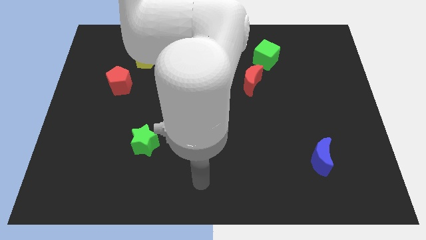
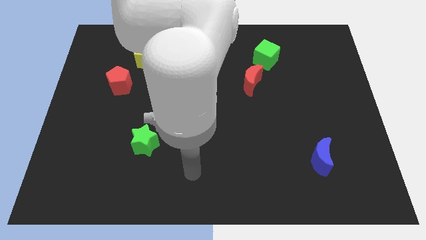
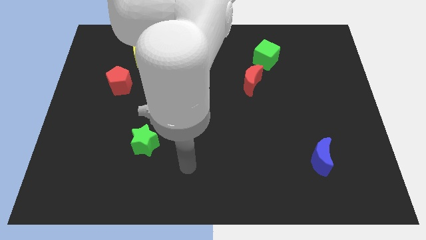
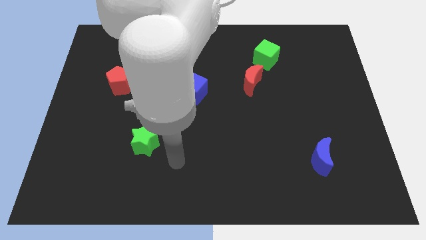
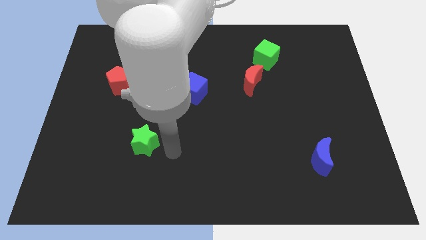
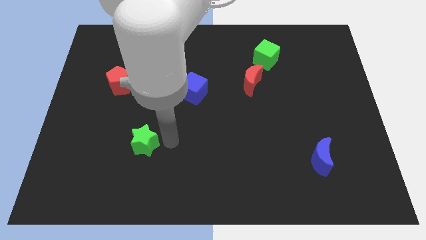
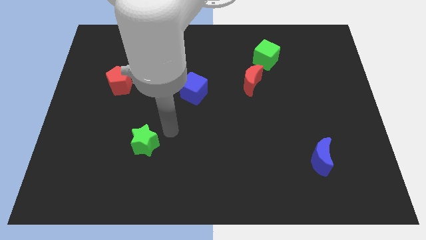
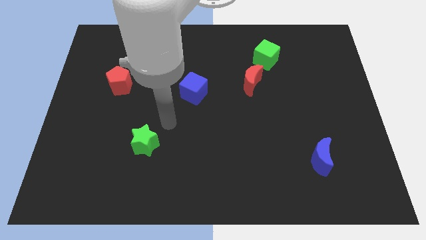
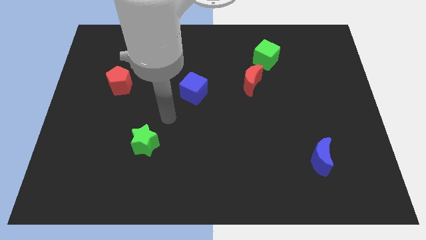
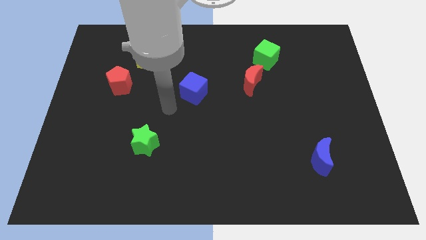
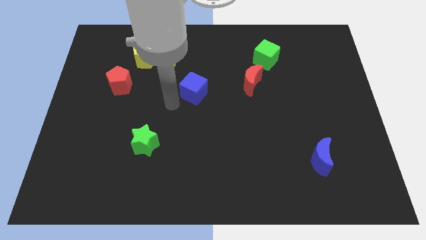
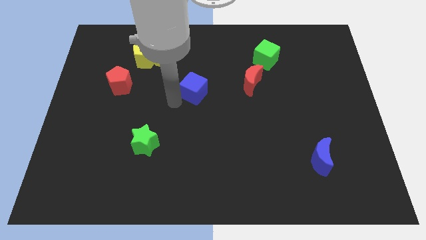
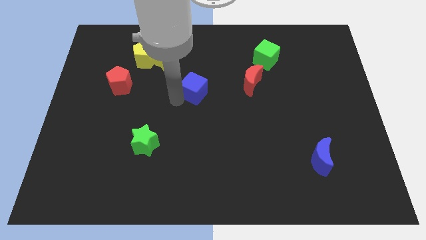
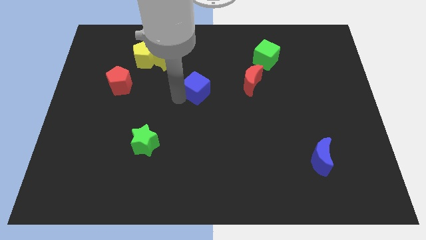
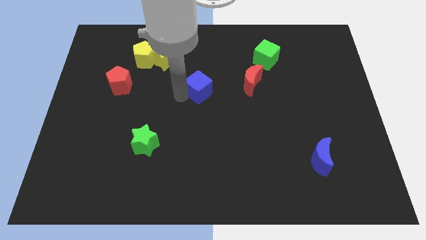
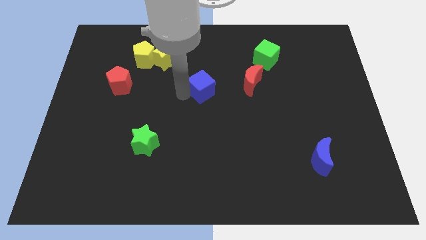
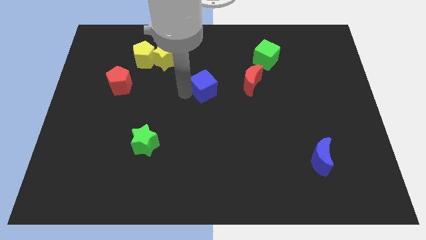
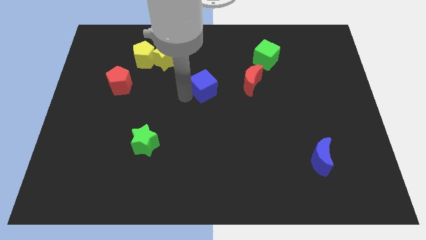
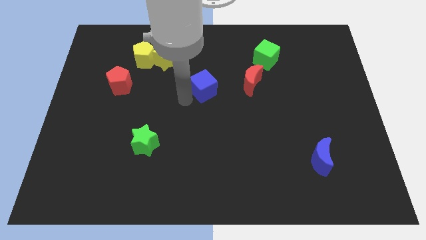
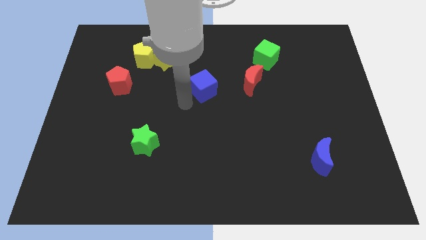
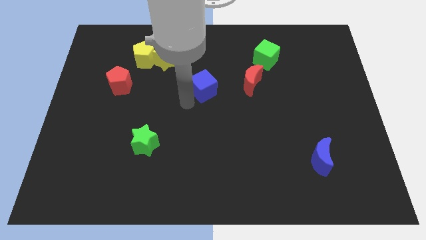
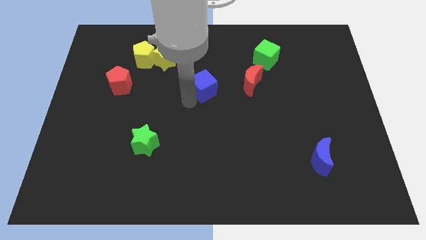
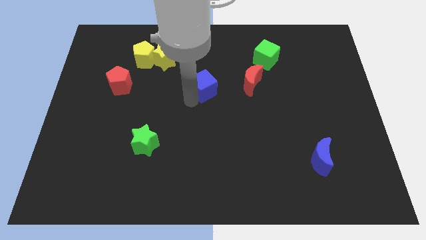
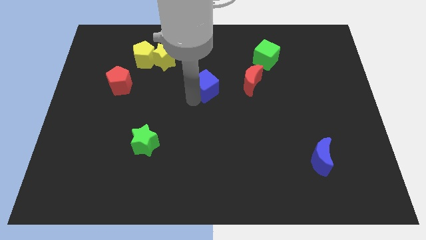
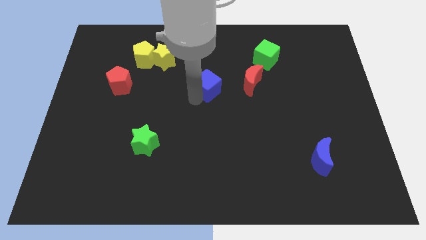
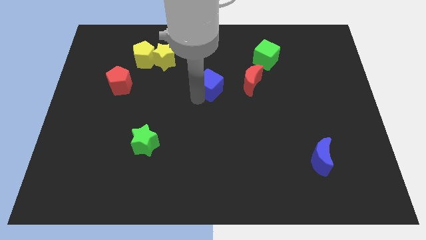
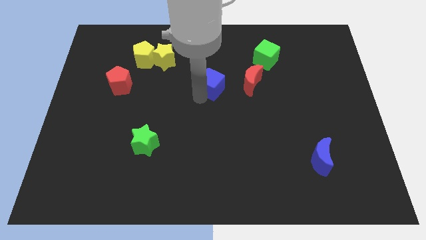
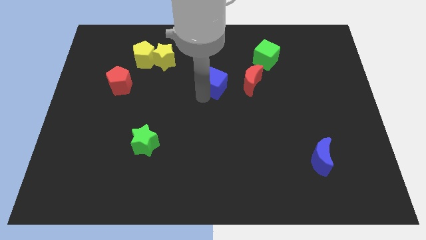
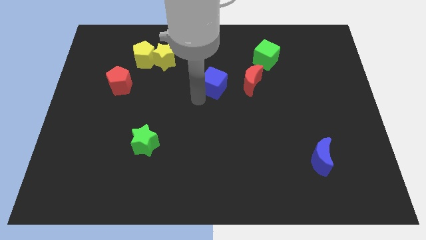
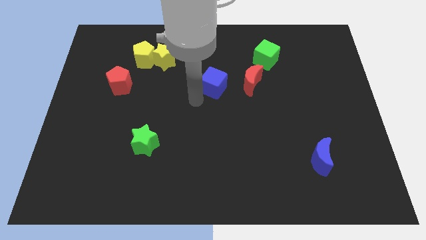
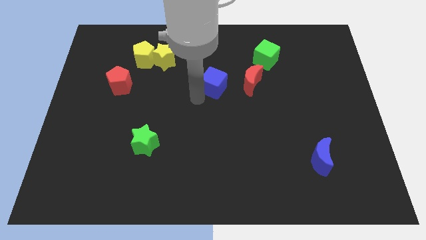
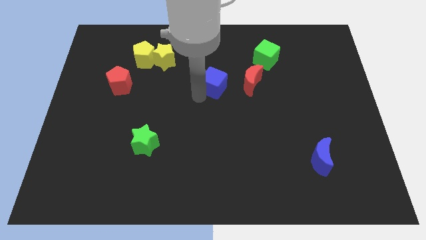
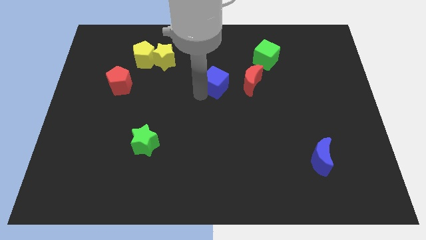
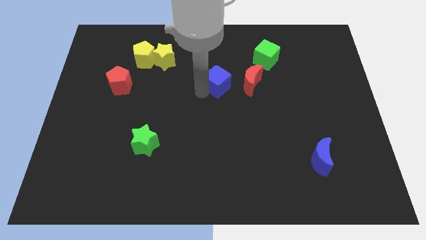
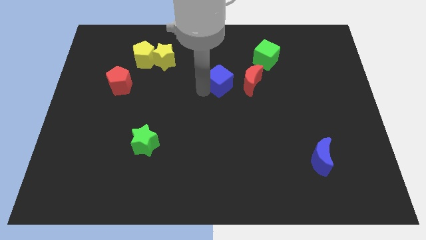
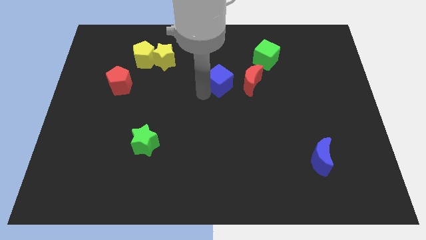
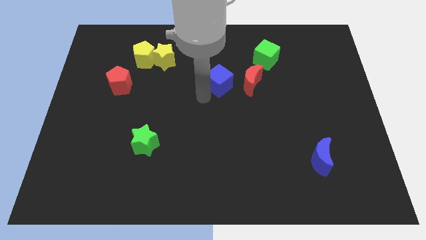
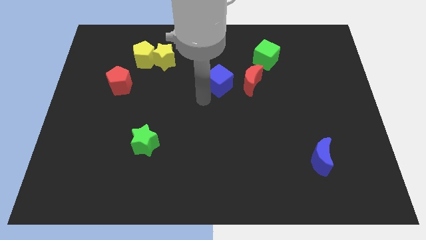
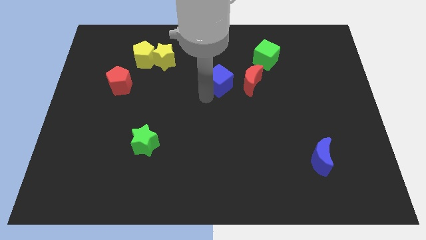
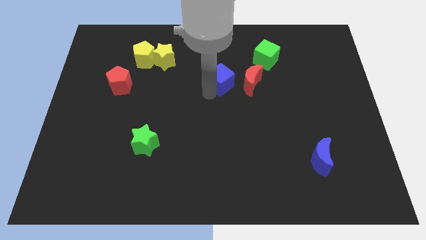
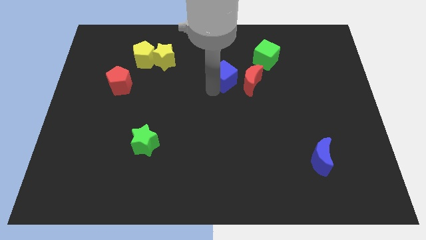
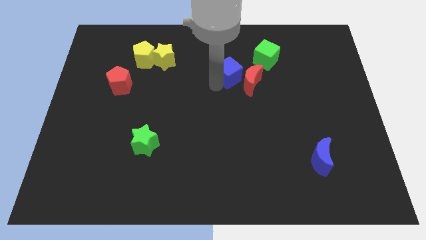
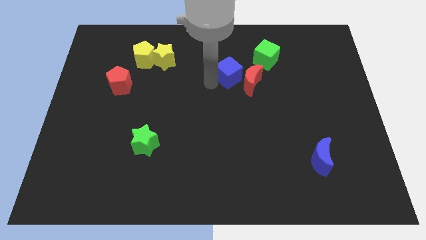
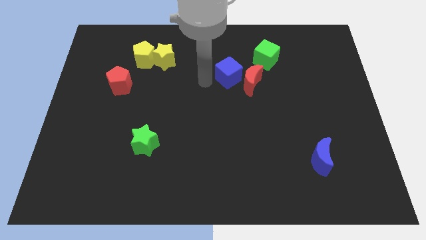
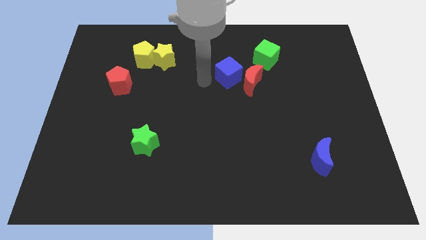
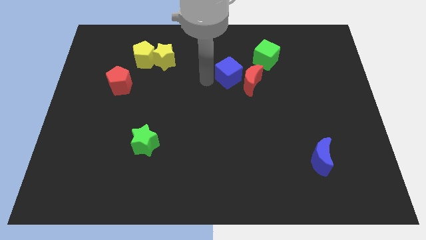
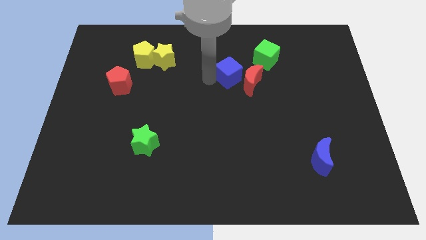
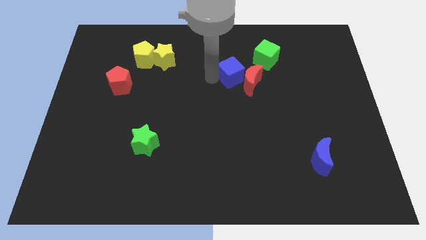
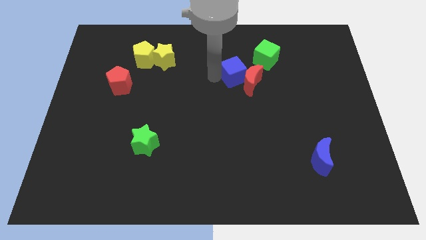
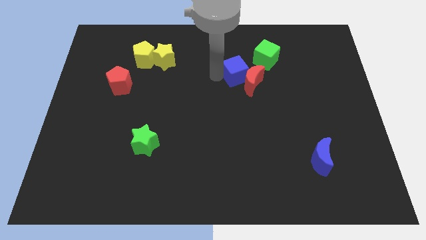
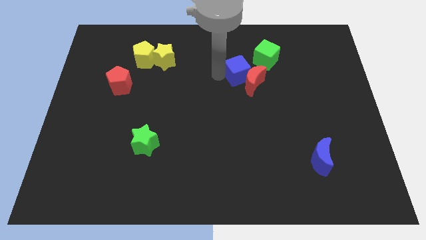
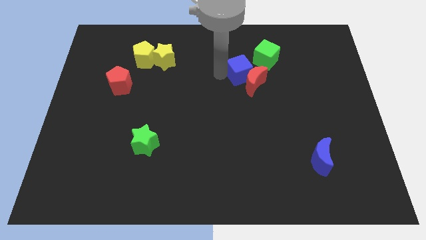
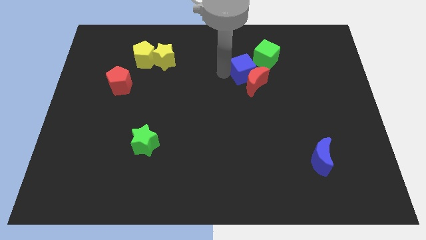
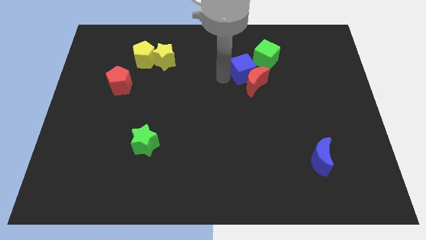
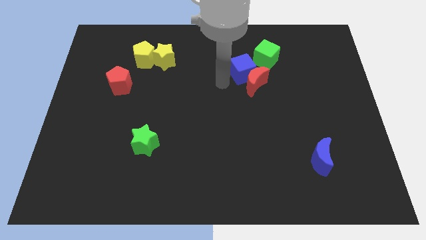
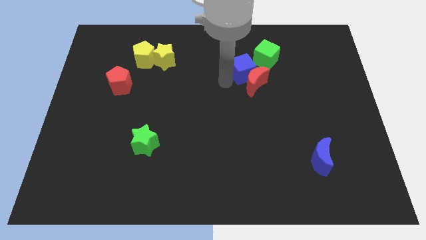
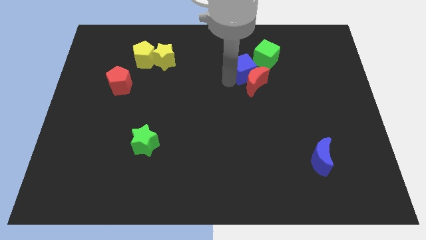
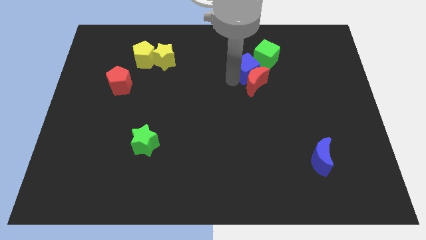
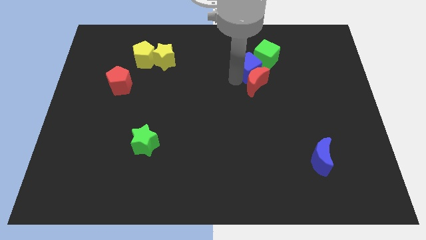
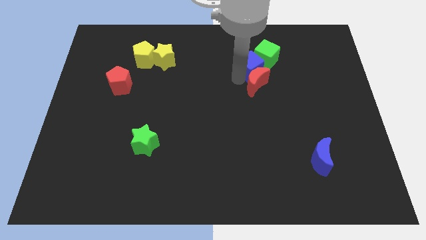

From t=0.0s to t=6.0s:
slide the blue cube towards the green cube

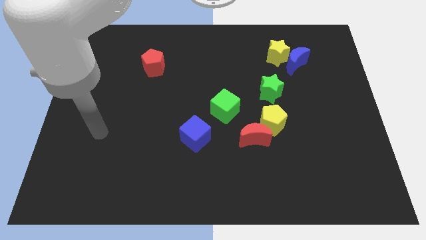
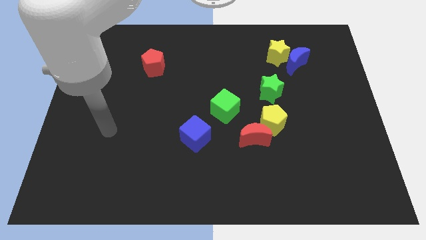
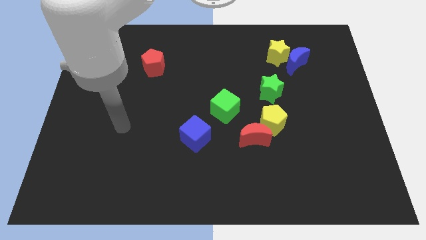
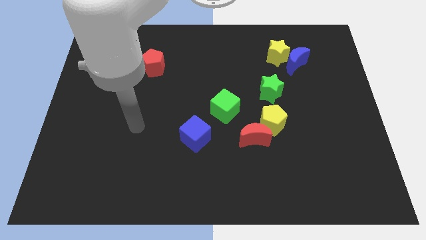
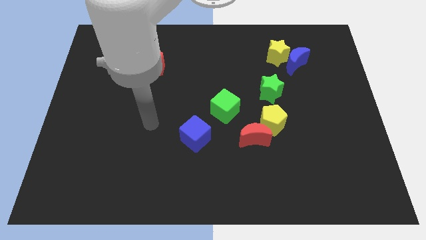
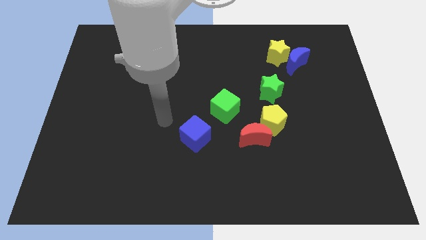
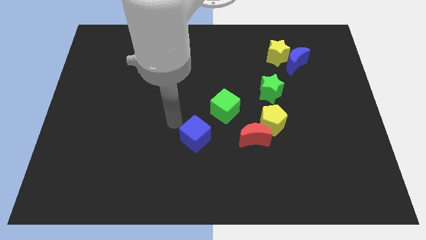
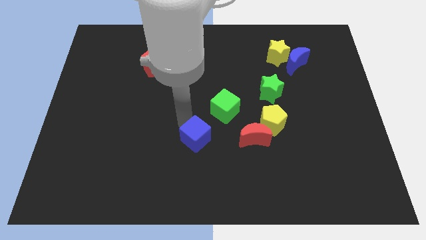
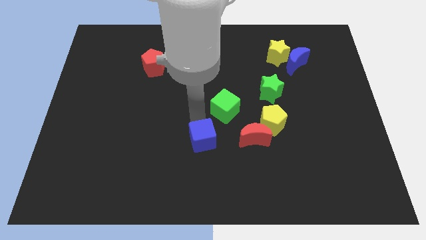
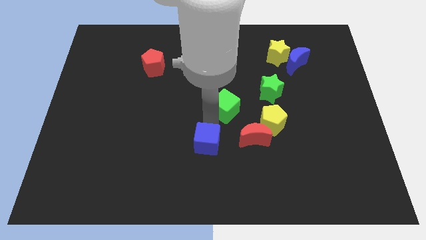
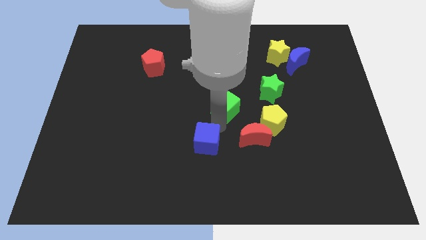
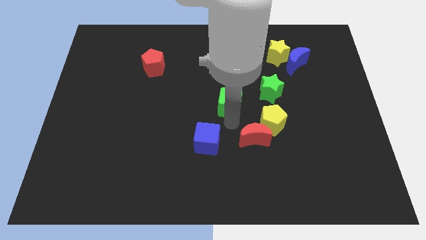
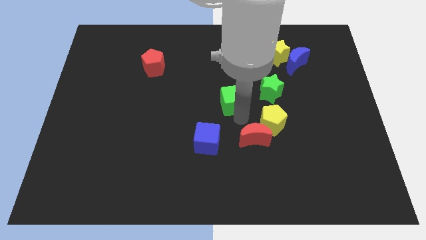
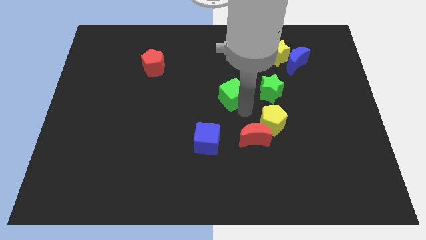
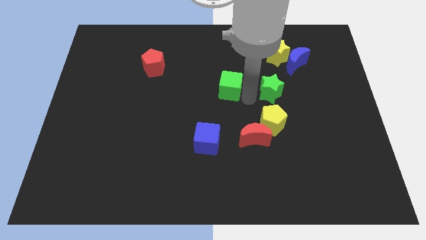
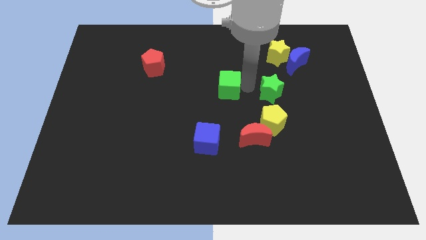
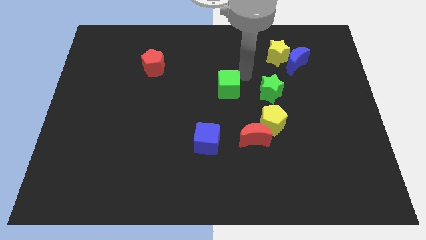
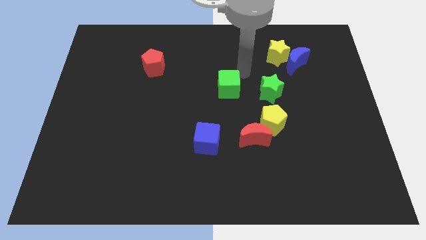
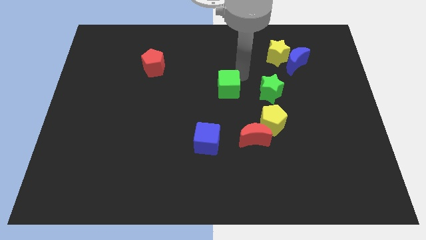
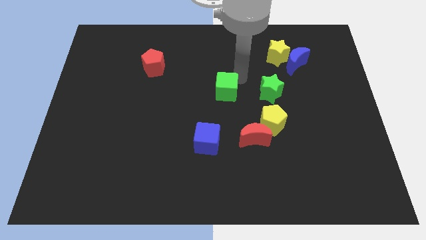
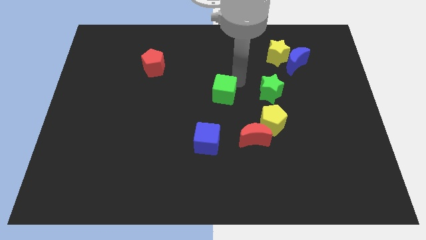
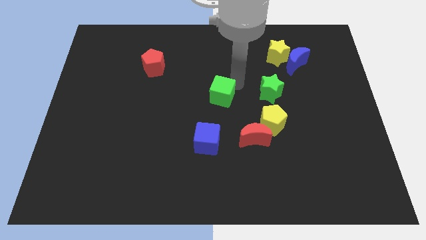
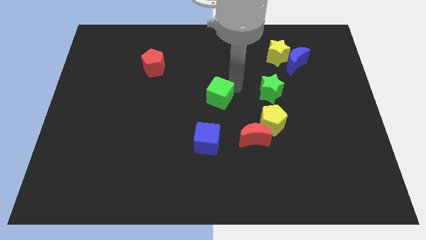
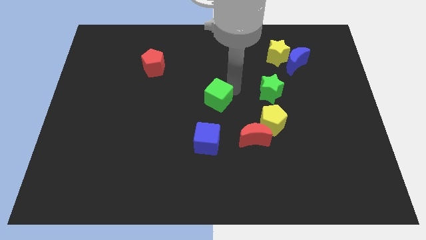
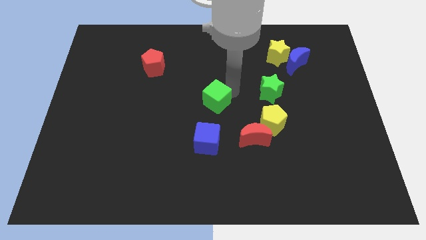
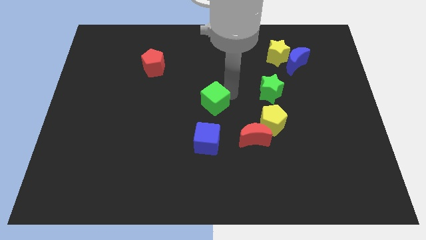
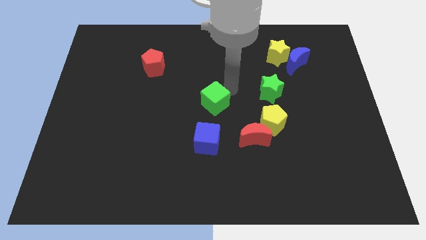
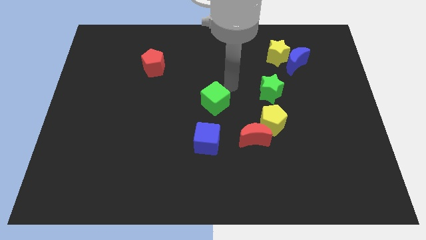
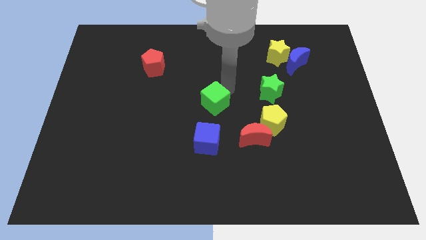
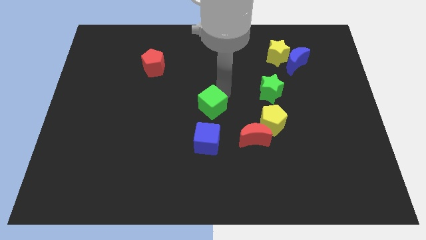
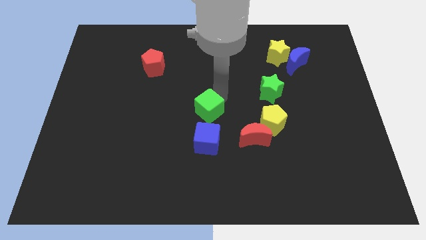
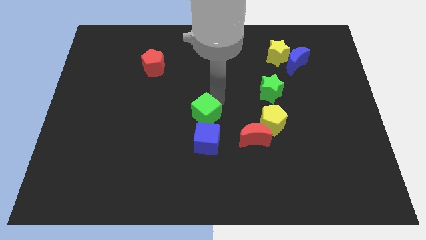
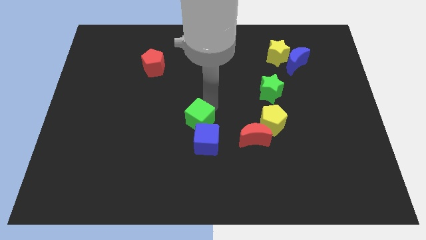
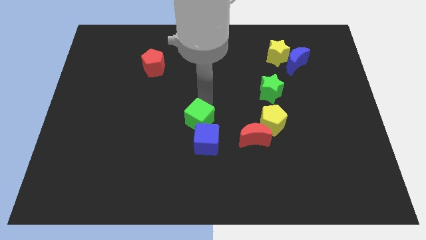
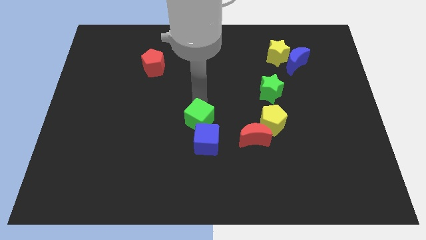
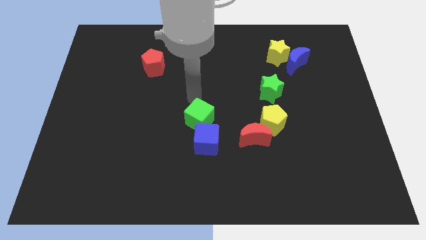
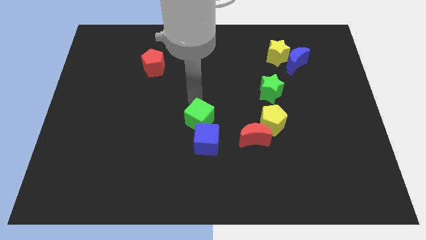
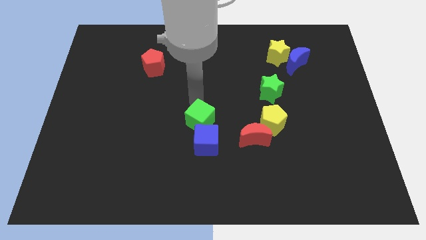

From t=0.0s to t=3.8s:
push the green cube close to the blue cube
